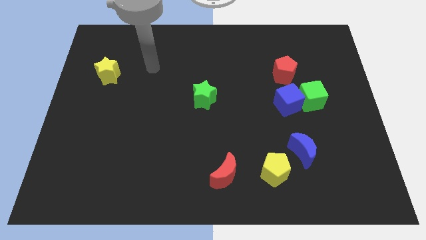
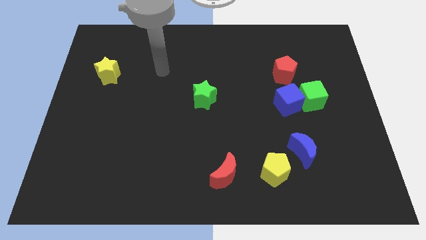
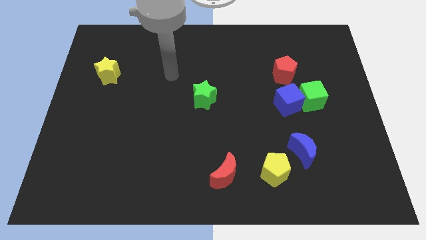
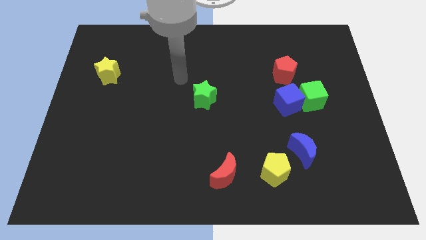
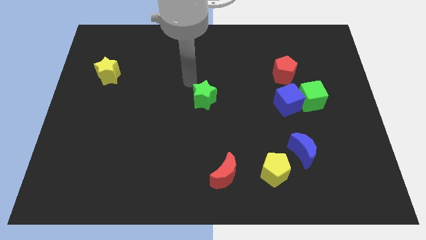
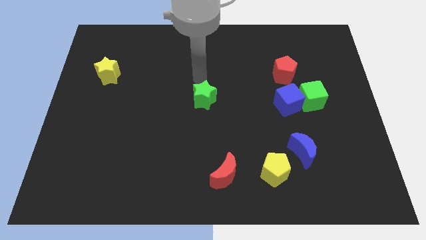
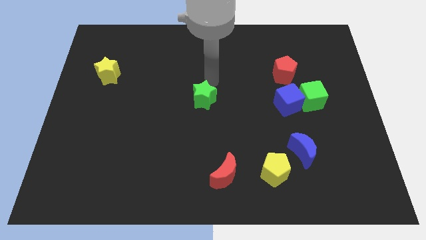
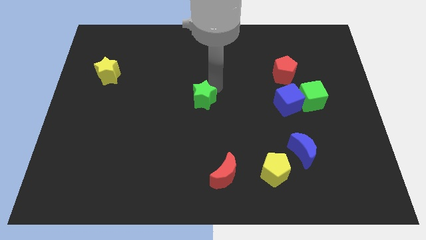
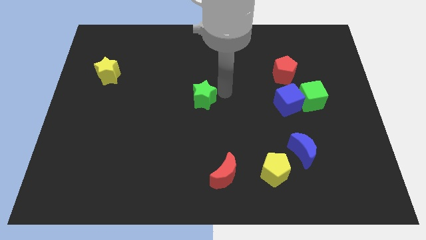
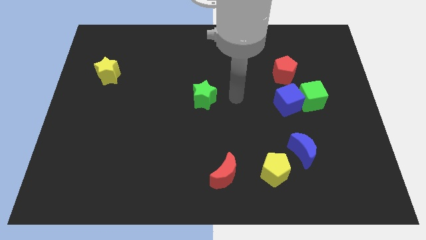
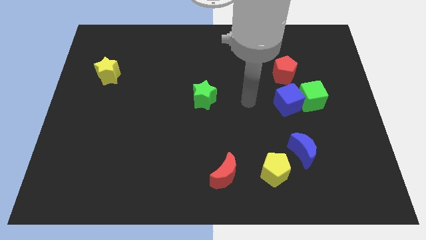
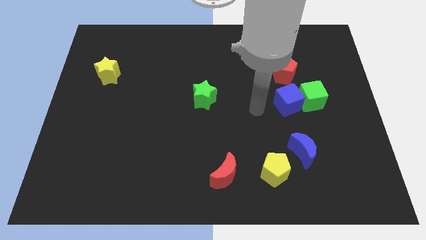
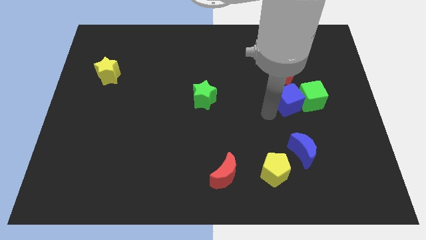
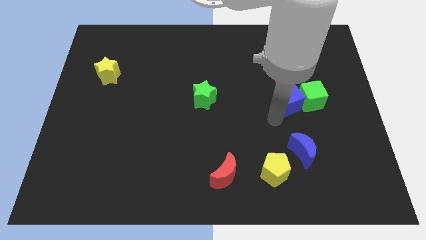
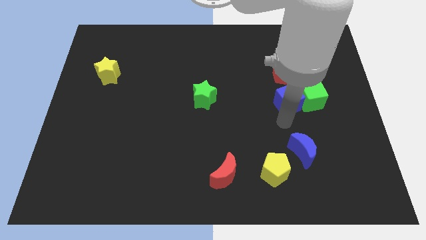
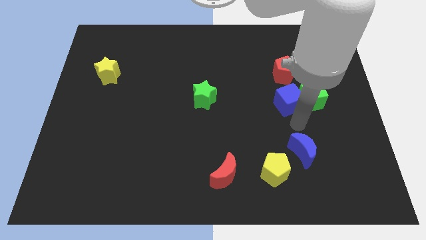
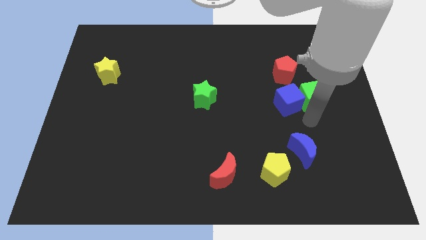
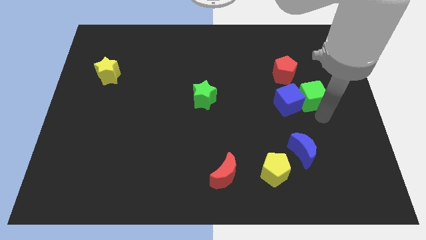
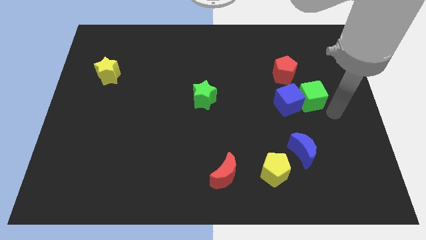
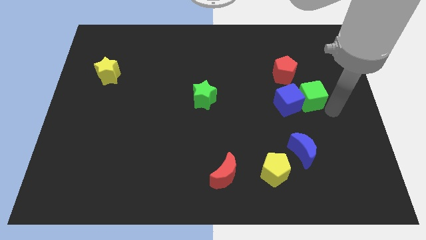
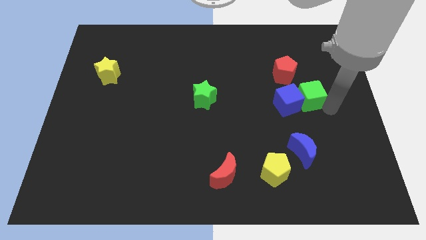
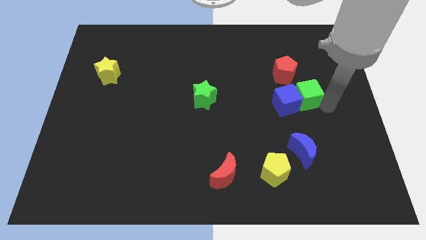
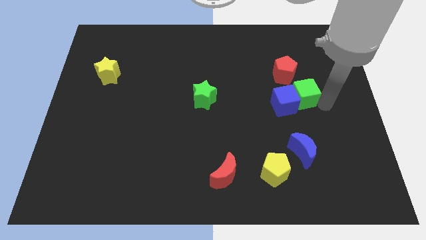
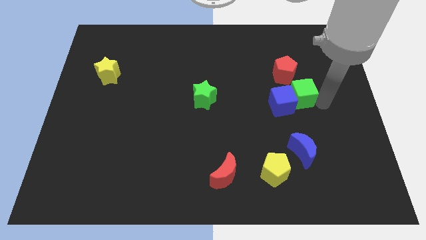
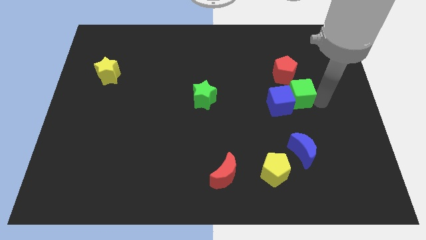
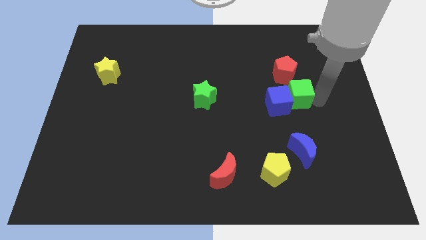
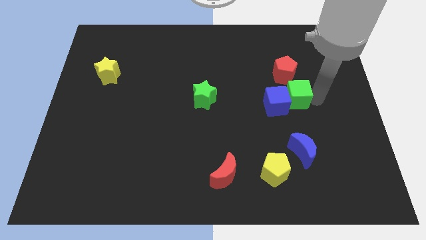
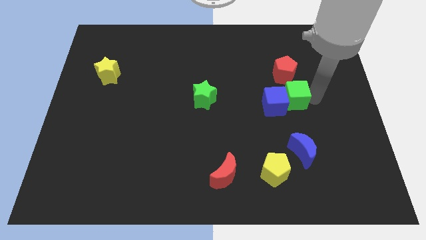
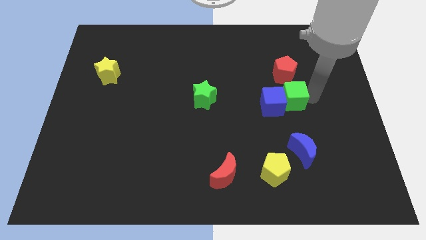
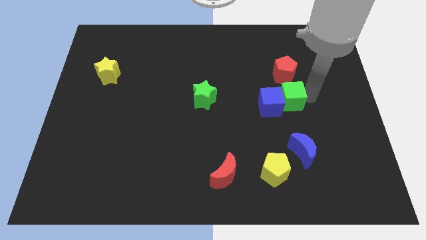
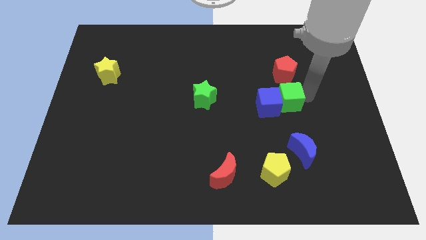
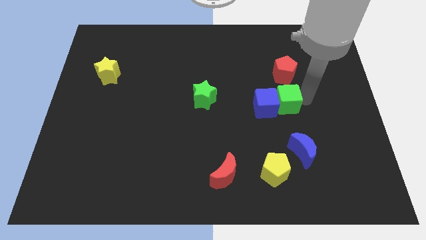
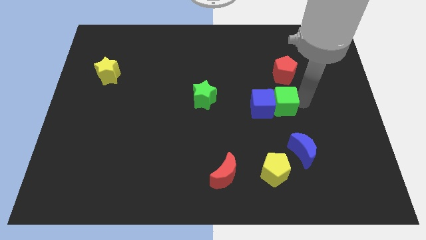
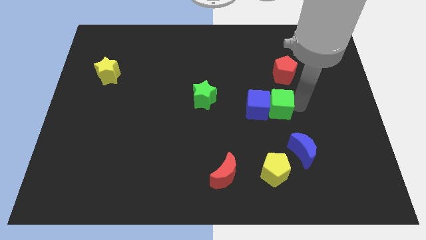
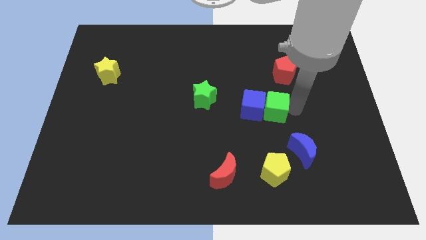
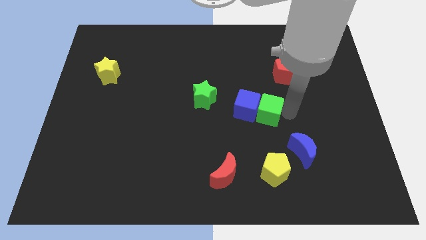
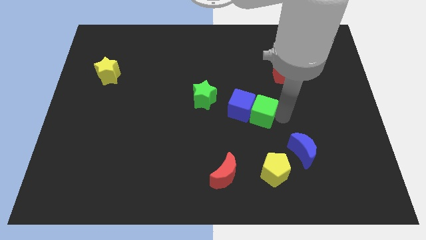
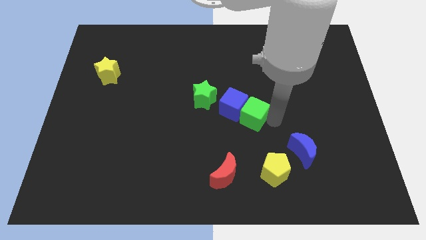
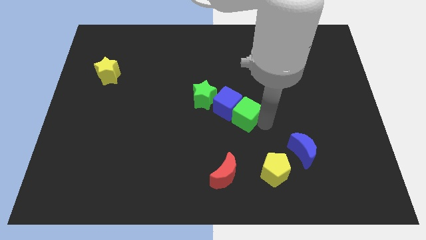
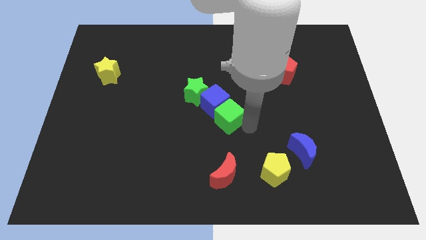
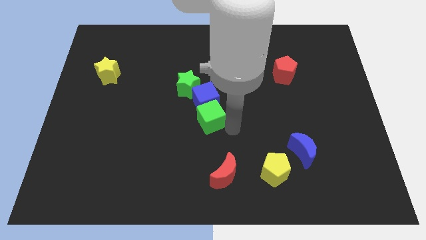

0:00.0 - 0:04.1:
move the green cube to the left

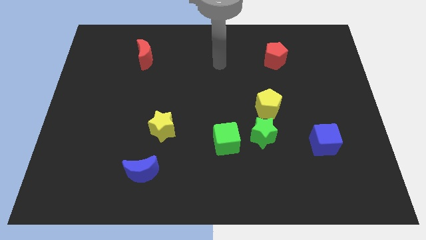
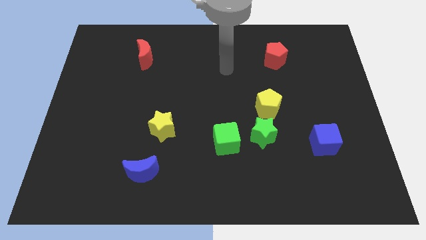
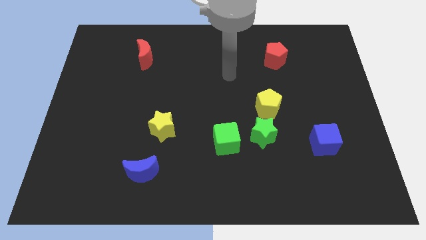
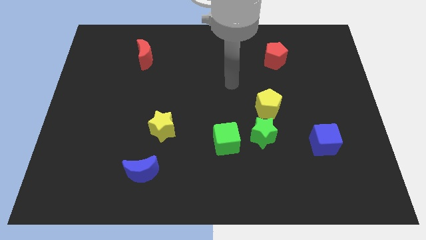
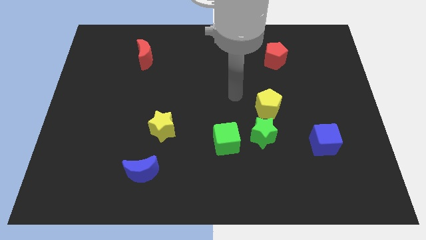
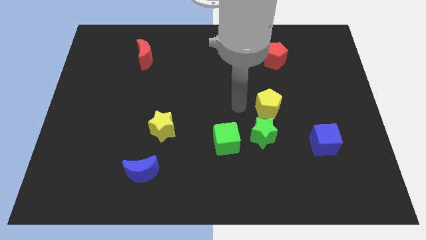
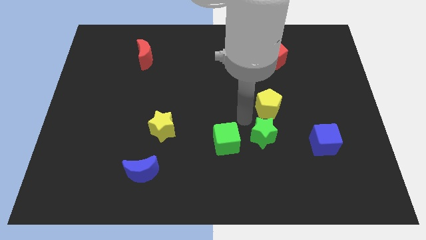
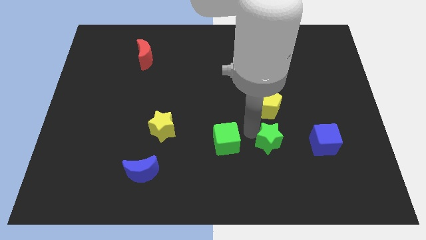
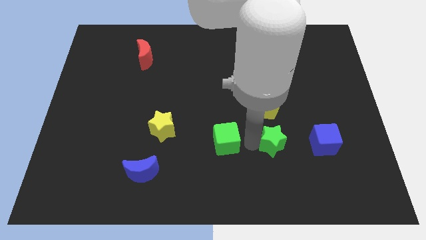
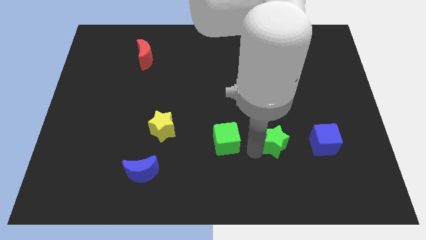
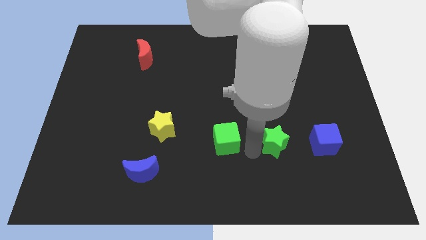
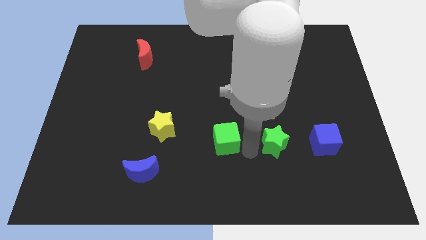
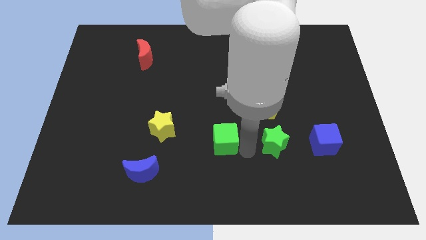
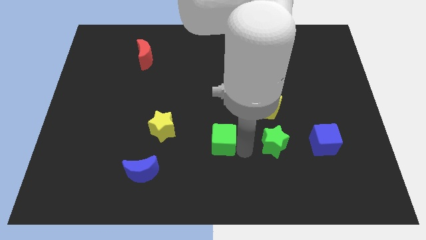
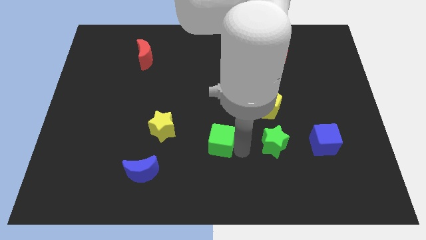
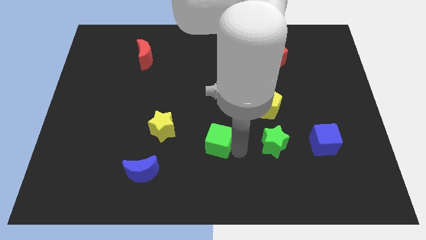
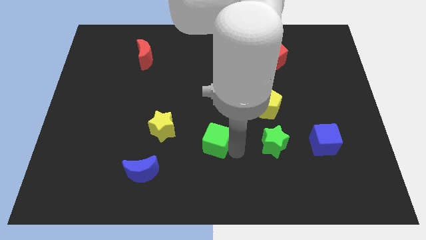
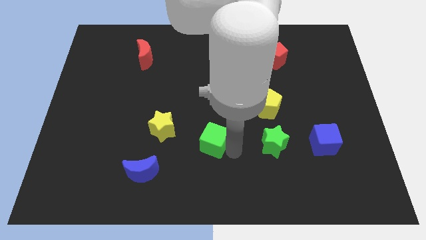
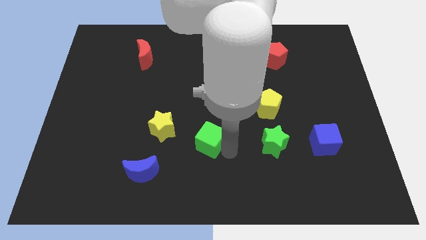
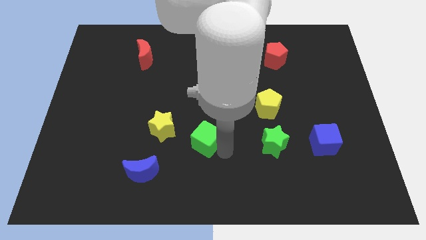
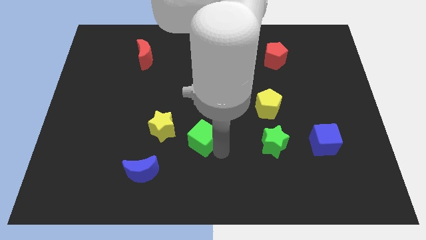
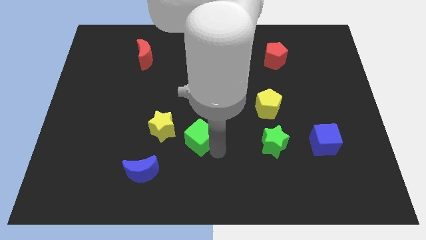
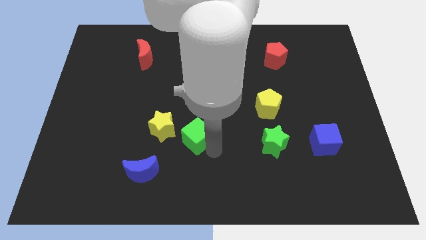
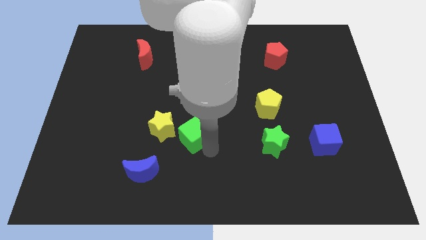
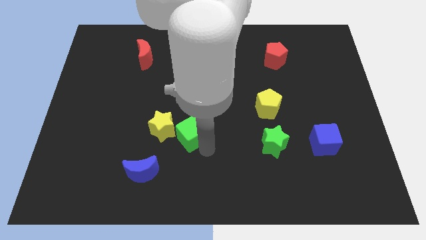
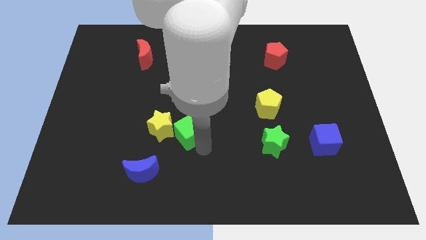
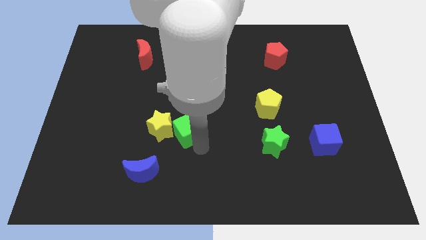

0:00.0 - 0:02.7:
slide the green cube slightly up and then to the left

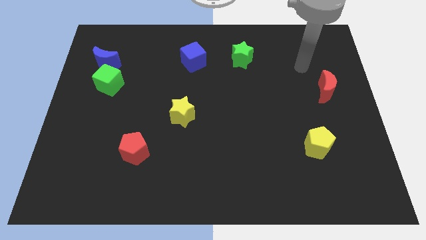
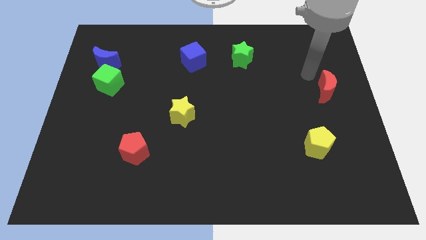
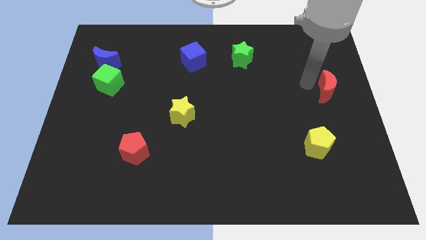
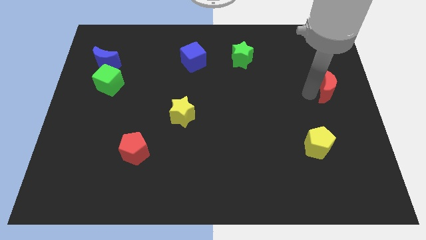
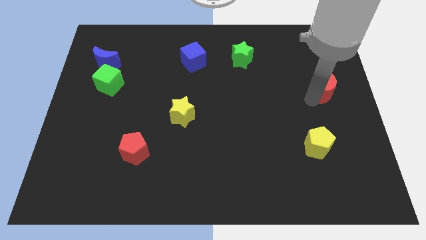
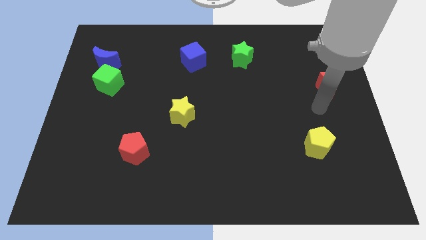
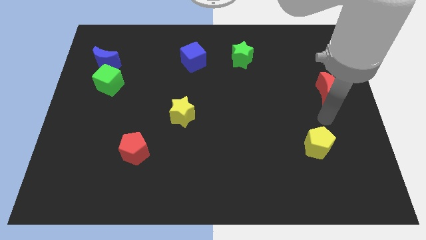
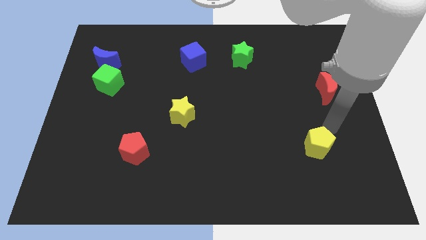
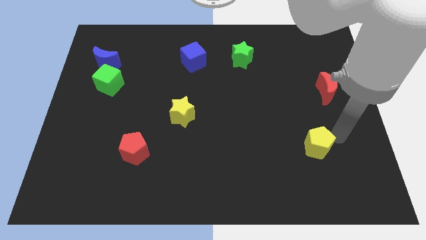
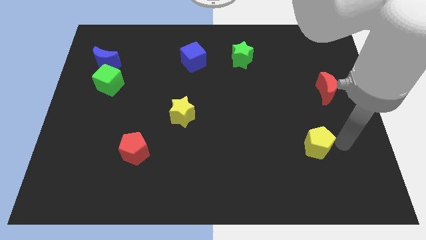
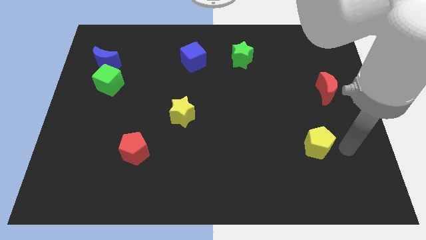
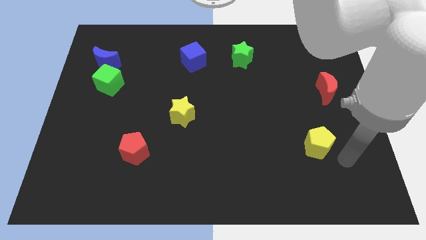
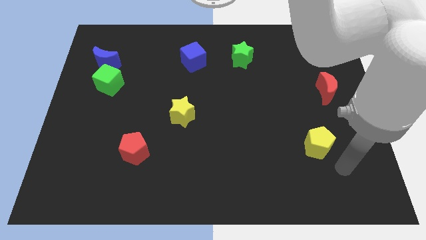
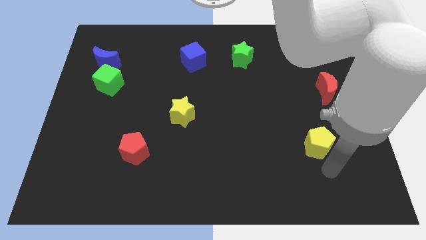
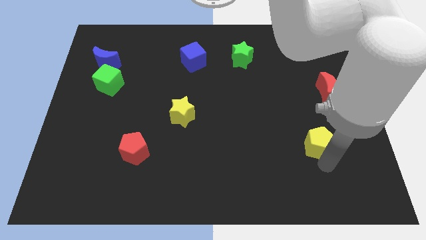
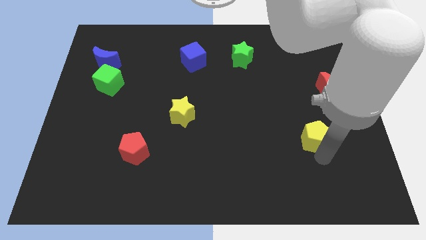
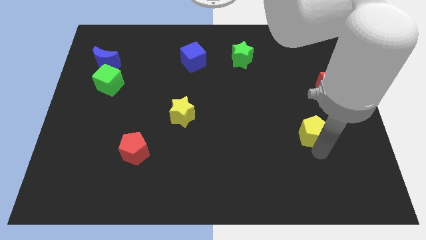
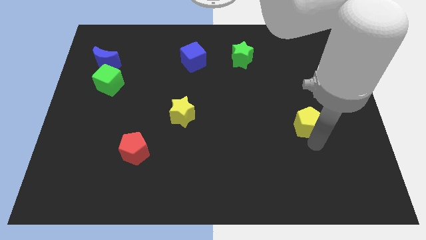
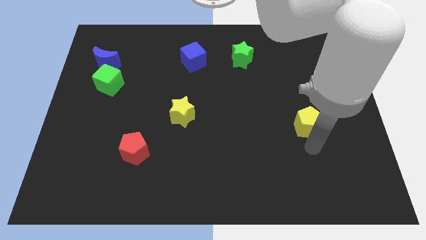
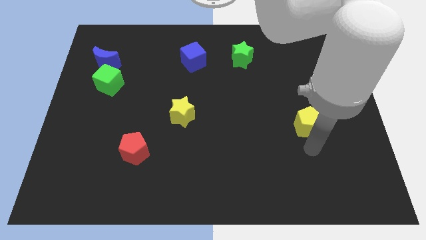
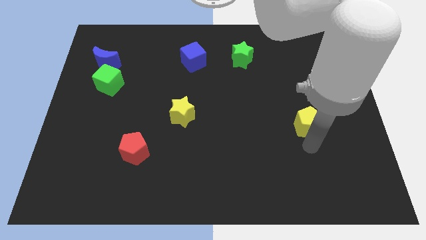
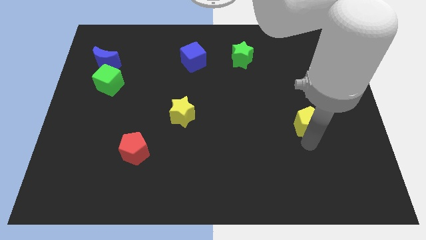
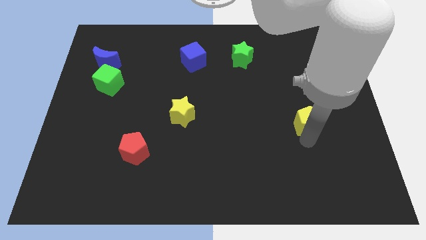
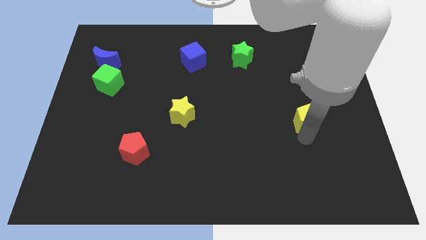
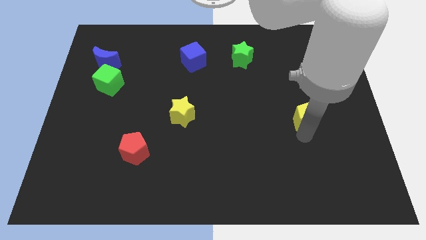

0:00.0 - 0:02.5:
slide the yellow pentagon upwards a bit
